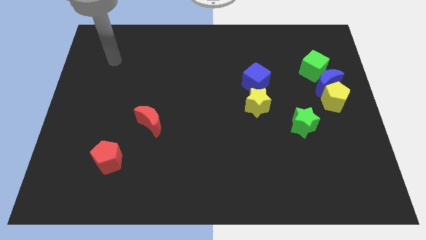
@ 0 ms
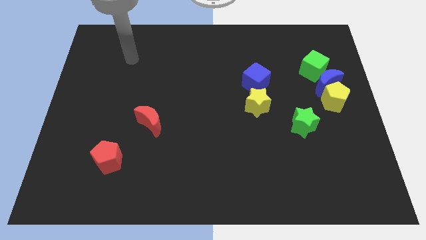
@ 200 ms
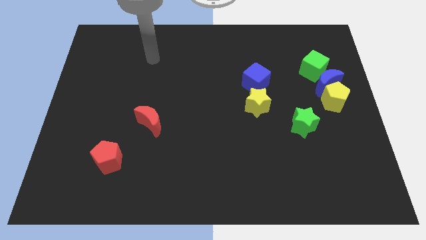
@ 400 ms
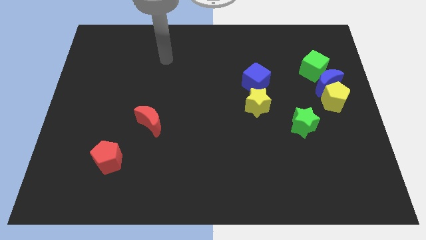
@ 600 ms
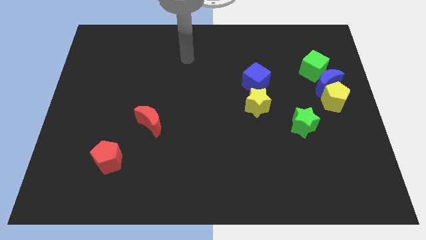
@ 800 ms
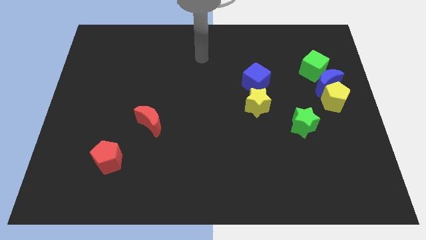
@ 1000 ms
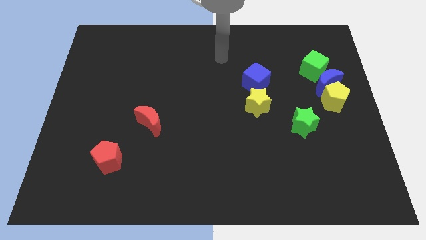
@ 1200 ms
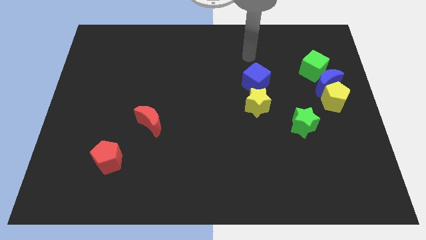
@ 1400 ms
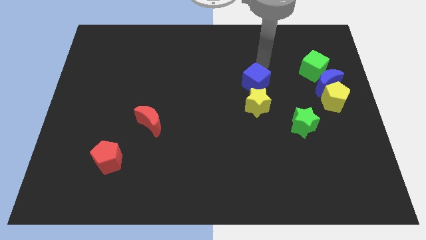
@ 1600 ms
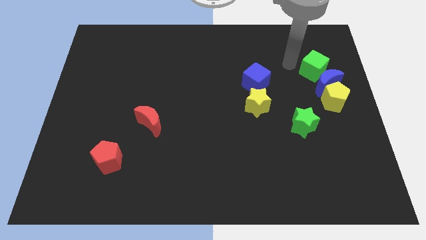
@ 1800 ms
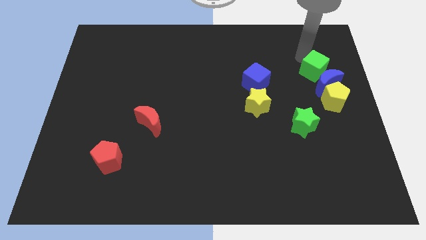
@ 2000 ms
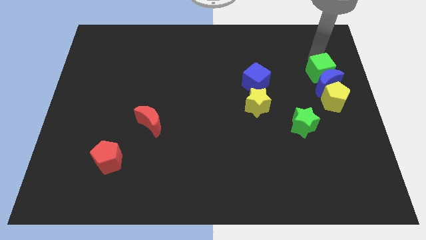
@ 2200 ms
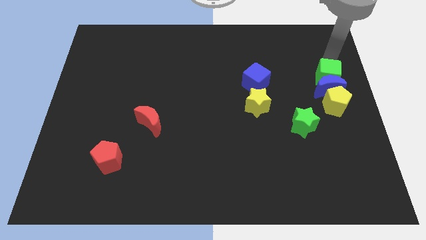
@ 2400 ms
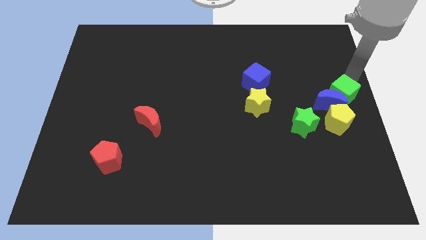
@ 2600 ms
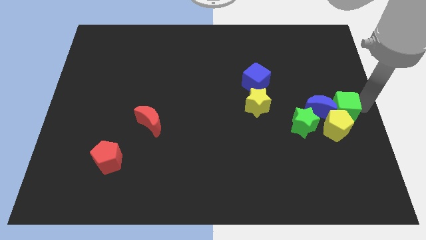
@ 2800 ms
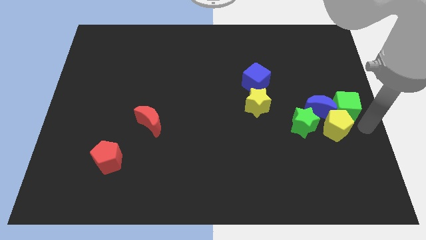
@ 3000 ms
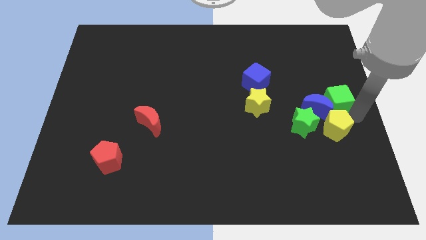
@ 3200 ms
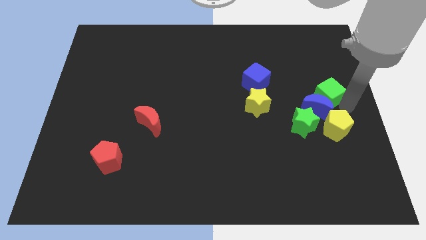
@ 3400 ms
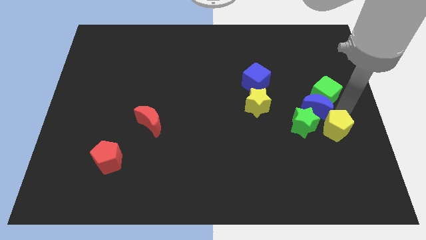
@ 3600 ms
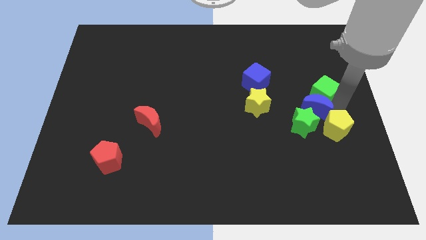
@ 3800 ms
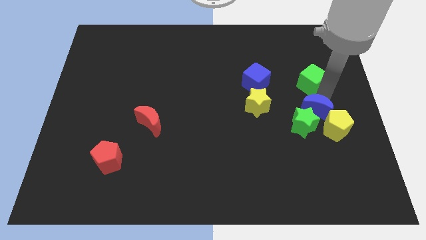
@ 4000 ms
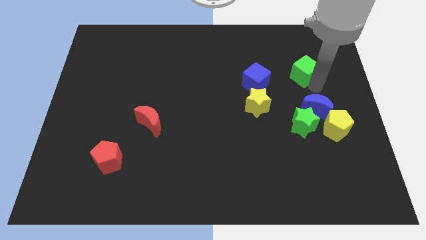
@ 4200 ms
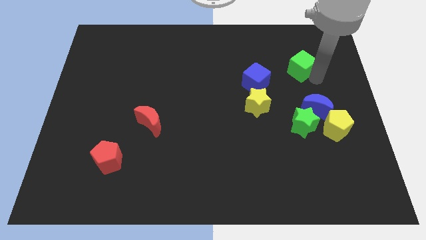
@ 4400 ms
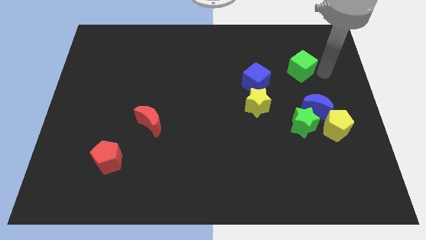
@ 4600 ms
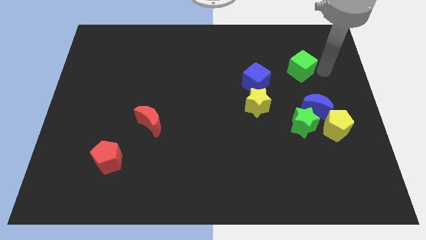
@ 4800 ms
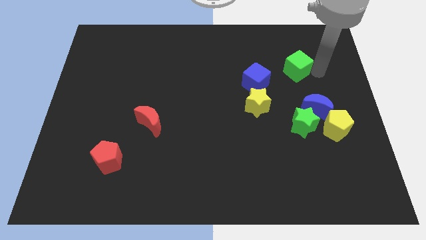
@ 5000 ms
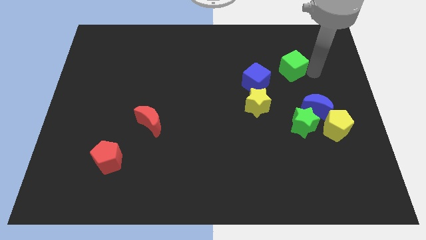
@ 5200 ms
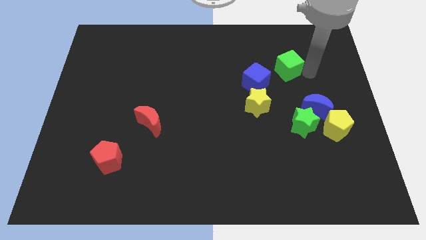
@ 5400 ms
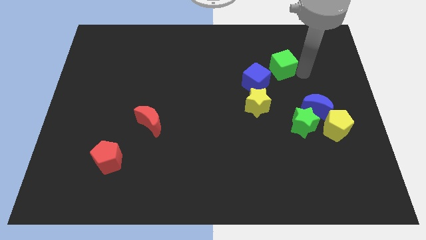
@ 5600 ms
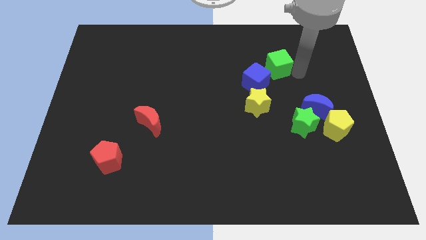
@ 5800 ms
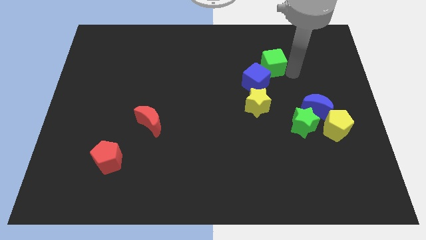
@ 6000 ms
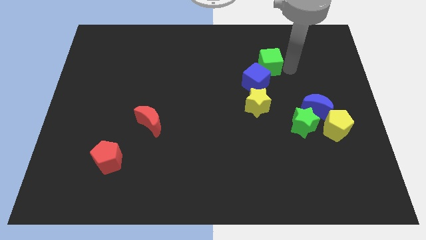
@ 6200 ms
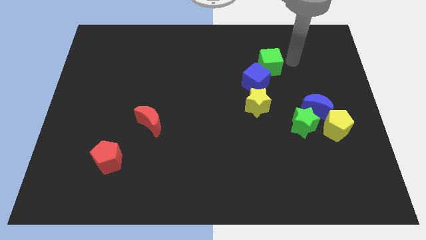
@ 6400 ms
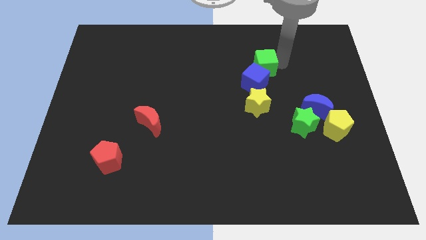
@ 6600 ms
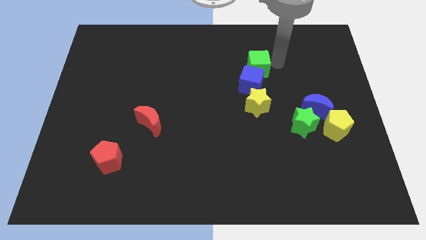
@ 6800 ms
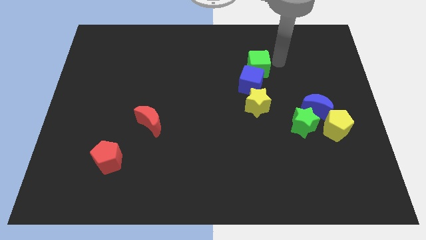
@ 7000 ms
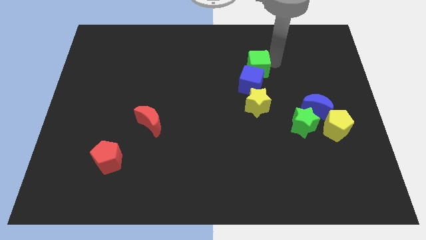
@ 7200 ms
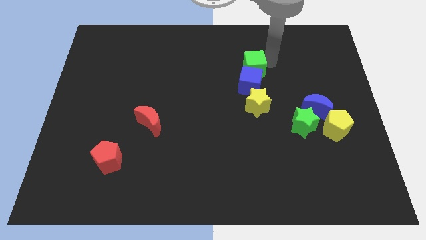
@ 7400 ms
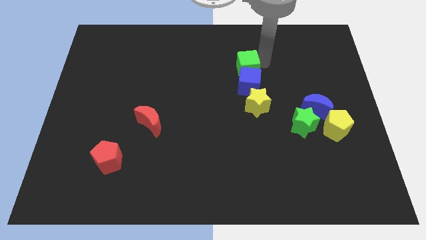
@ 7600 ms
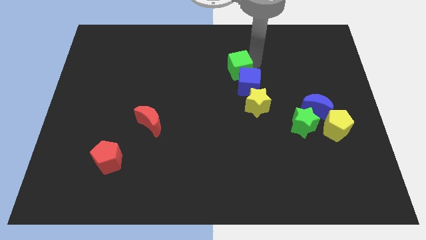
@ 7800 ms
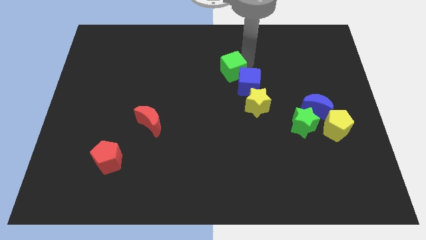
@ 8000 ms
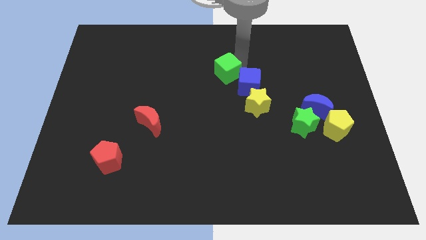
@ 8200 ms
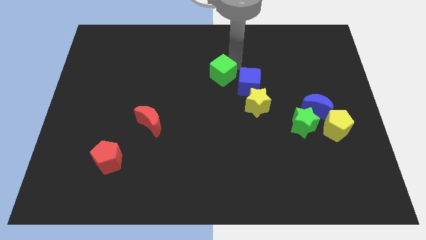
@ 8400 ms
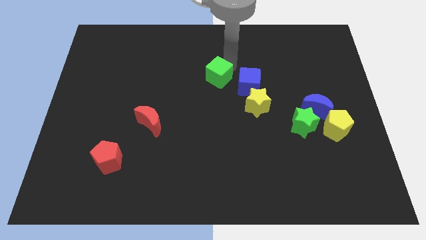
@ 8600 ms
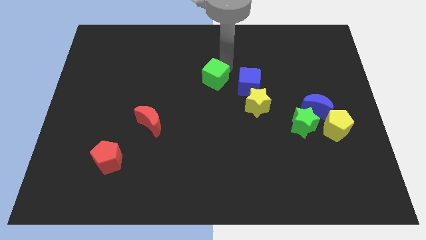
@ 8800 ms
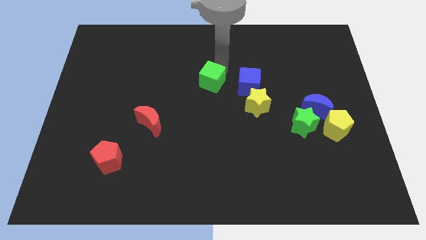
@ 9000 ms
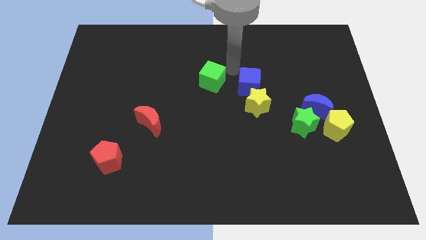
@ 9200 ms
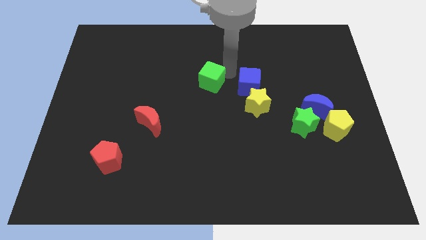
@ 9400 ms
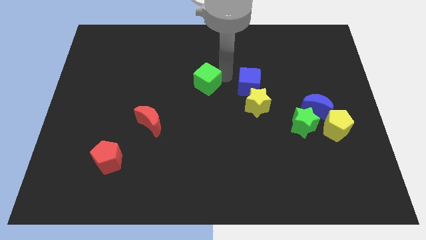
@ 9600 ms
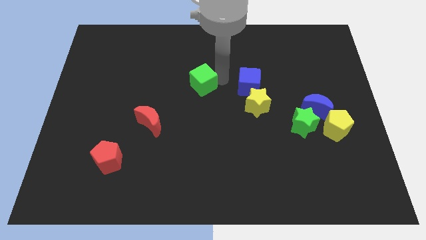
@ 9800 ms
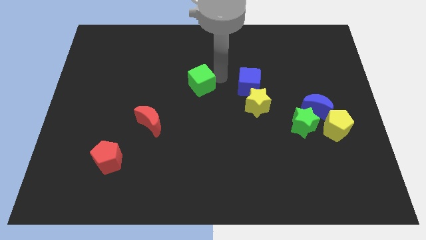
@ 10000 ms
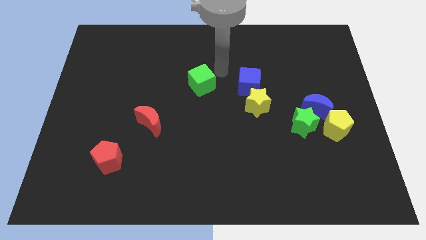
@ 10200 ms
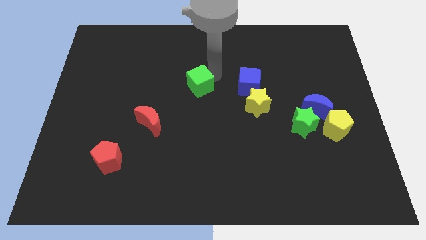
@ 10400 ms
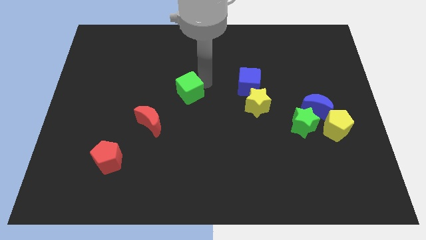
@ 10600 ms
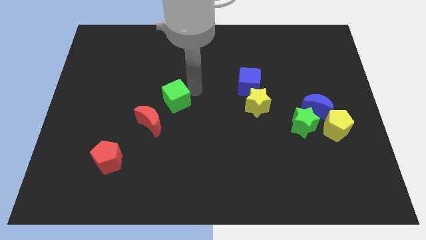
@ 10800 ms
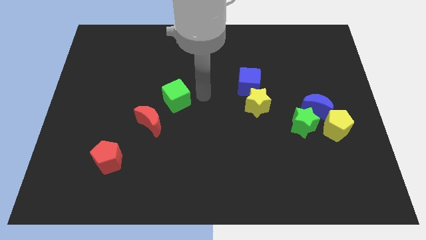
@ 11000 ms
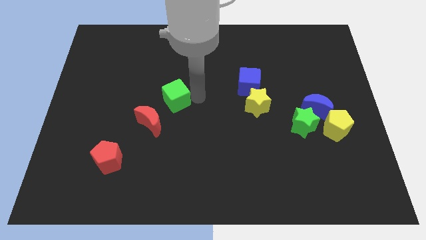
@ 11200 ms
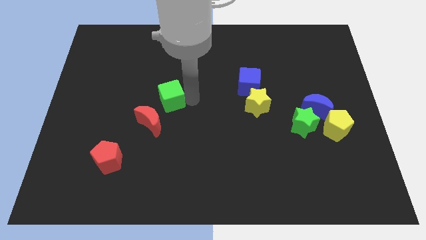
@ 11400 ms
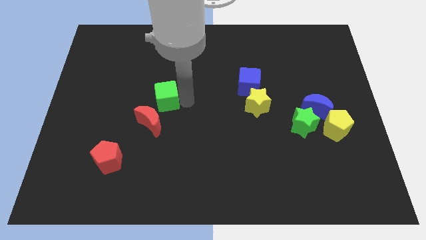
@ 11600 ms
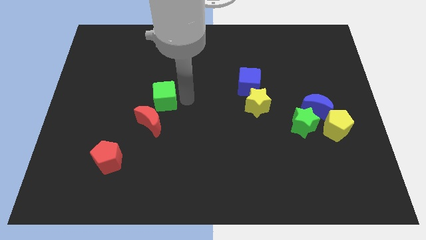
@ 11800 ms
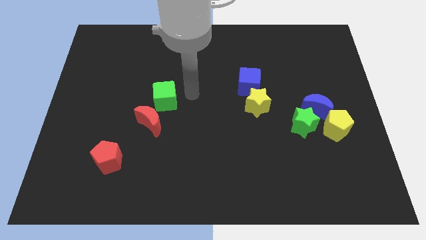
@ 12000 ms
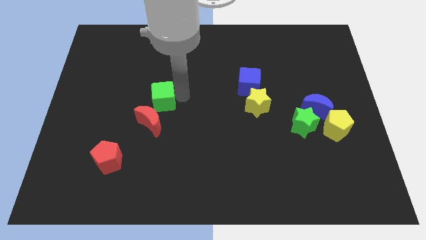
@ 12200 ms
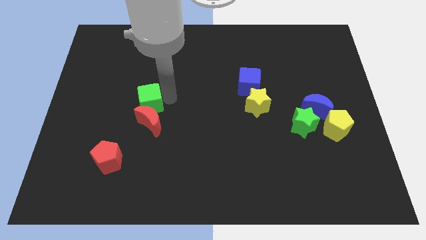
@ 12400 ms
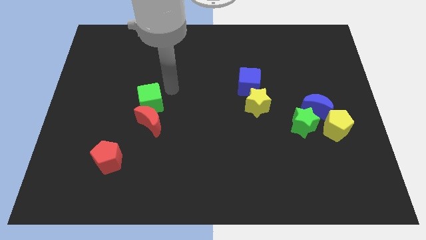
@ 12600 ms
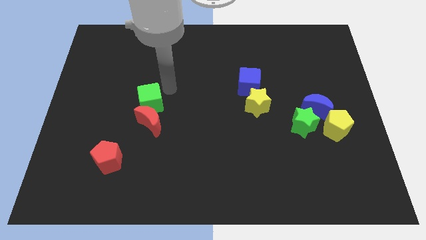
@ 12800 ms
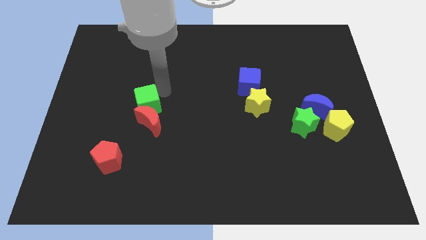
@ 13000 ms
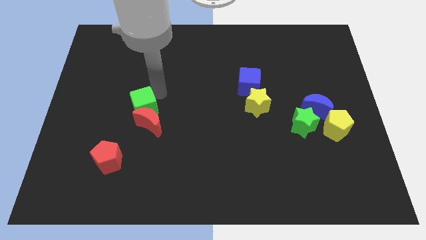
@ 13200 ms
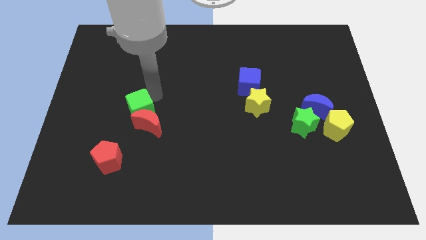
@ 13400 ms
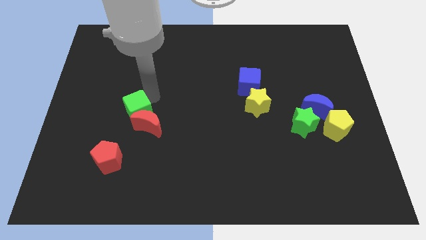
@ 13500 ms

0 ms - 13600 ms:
slide the green cube above the red pentagon
